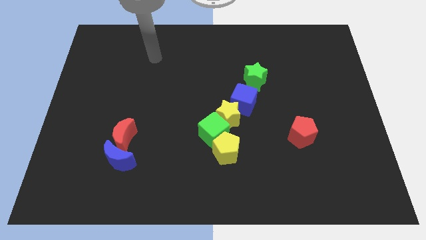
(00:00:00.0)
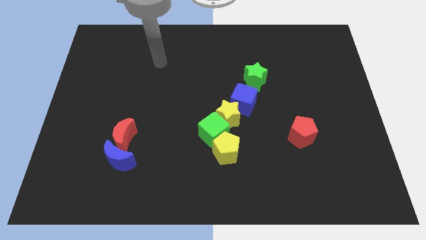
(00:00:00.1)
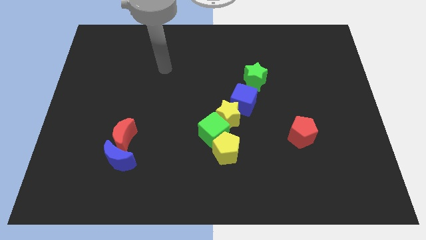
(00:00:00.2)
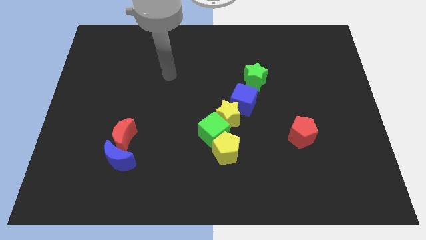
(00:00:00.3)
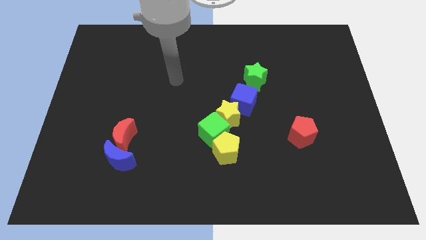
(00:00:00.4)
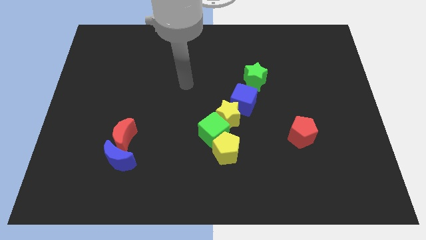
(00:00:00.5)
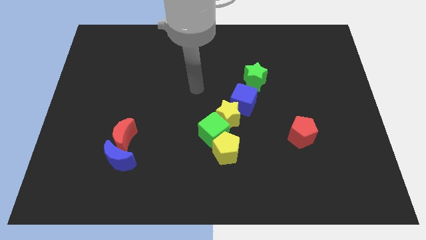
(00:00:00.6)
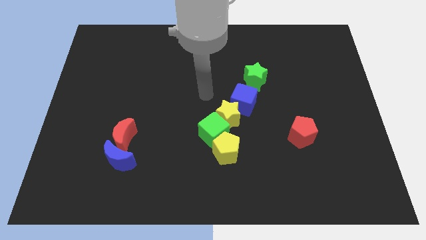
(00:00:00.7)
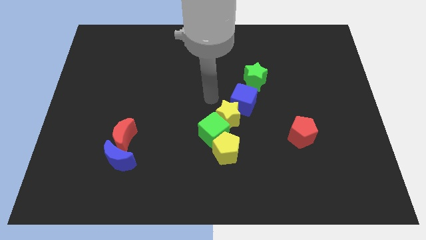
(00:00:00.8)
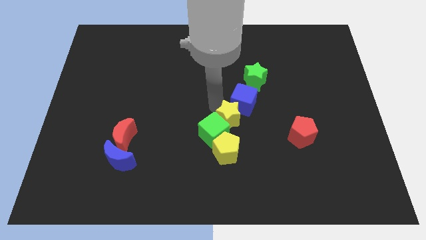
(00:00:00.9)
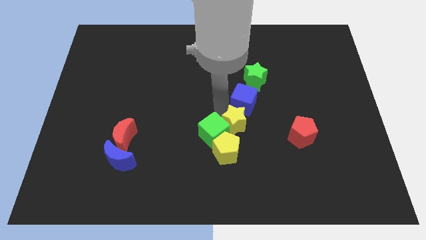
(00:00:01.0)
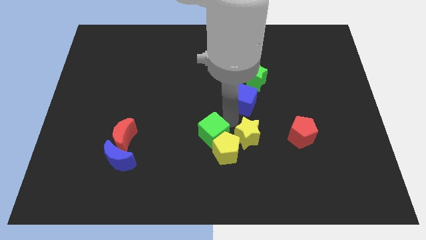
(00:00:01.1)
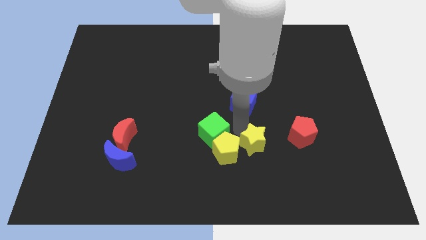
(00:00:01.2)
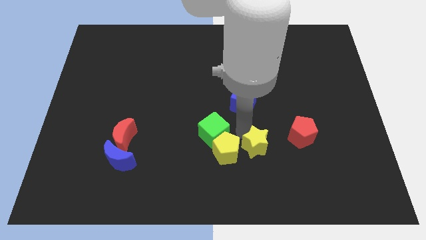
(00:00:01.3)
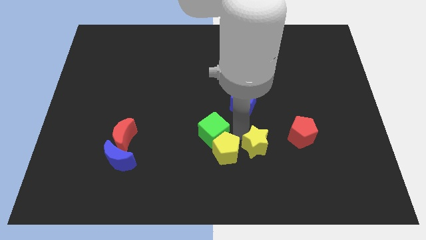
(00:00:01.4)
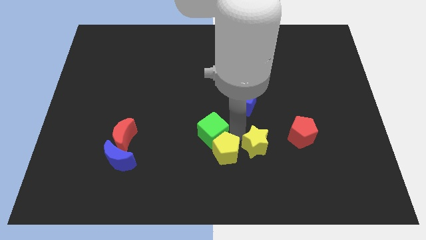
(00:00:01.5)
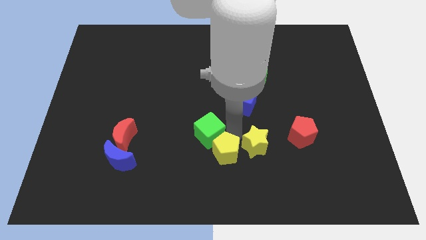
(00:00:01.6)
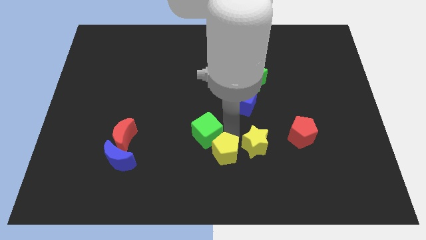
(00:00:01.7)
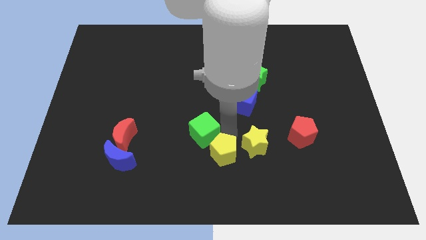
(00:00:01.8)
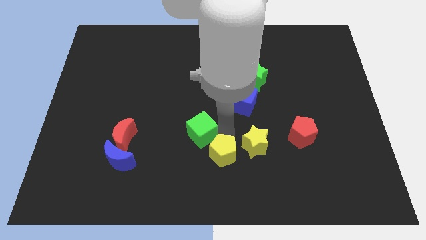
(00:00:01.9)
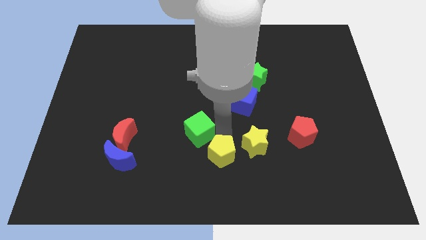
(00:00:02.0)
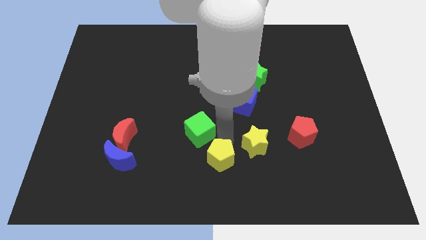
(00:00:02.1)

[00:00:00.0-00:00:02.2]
move the green cube away from the yellow star and yellow pentagon

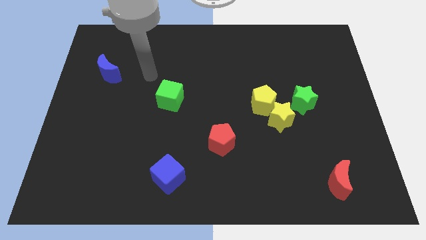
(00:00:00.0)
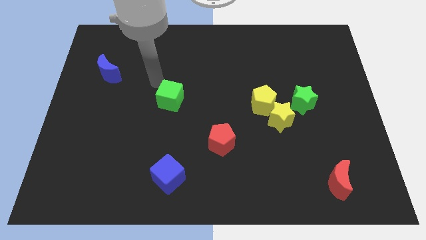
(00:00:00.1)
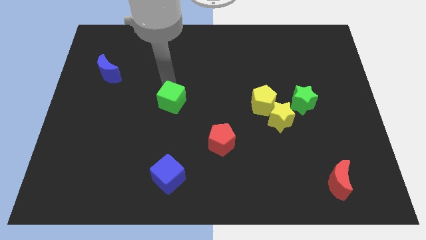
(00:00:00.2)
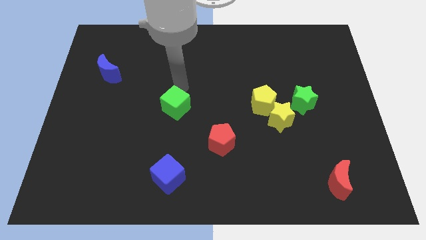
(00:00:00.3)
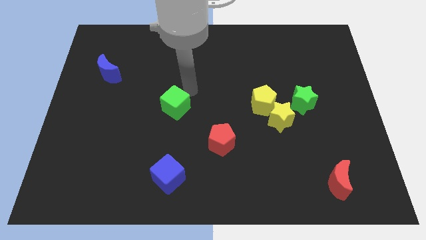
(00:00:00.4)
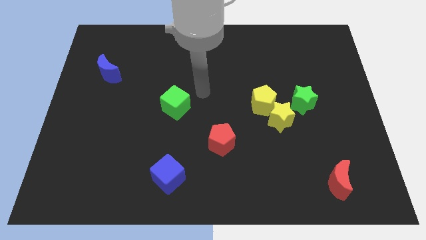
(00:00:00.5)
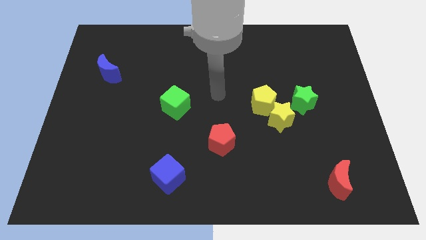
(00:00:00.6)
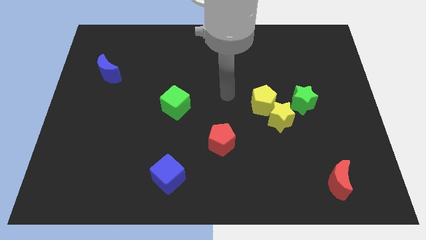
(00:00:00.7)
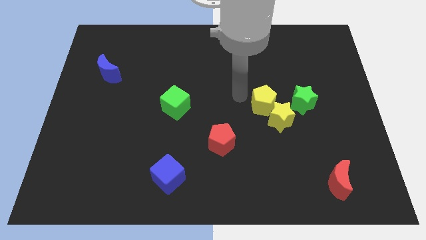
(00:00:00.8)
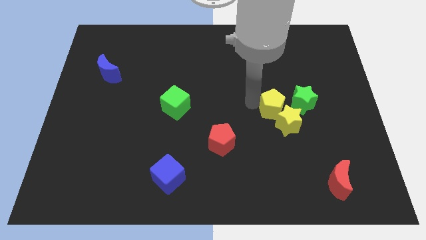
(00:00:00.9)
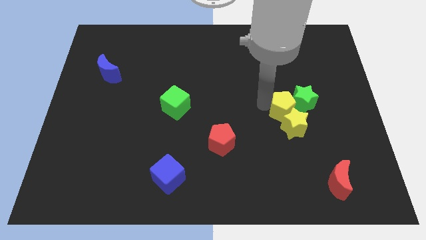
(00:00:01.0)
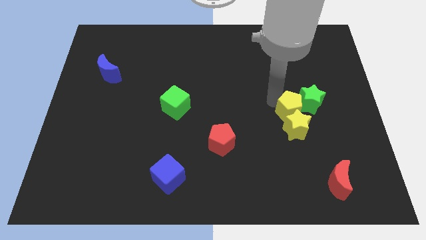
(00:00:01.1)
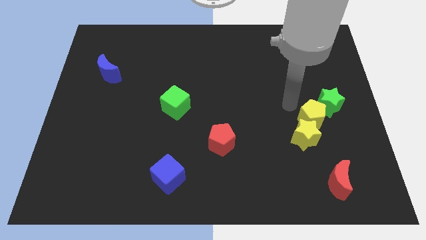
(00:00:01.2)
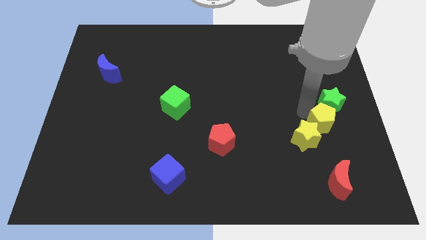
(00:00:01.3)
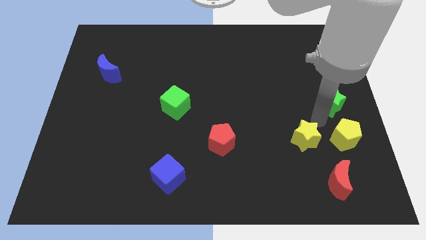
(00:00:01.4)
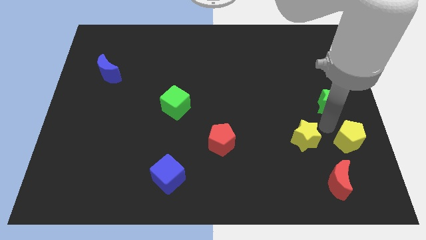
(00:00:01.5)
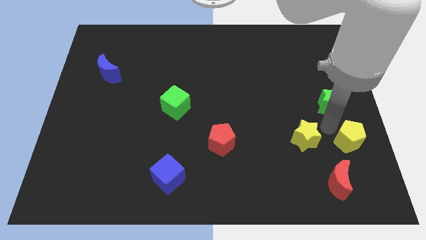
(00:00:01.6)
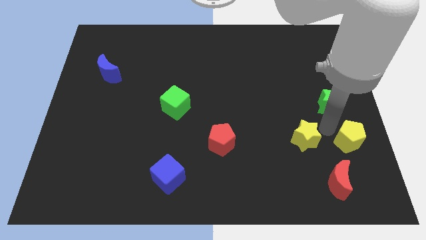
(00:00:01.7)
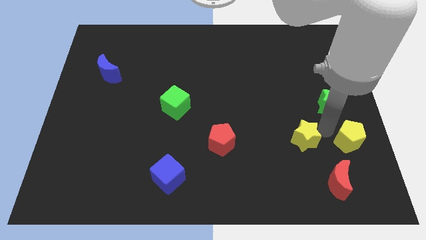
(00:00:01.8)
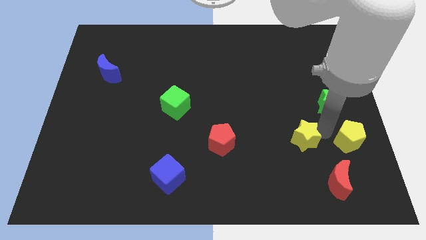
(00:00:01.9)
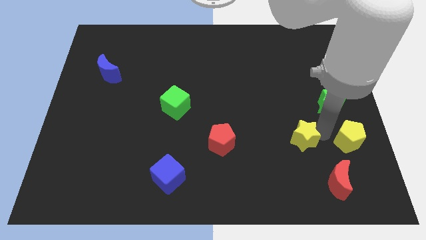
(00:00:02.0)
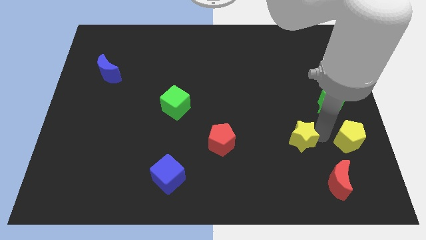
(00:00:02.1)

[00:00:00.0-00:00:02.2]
separate the yellow star from the yellow pentagon and green star

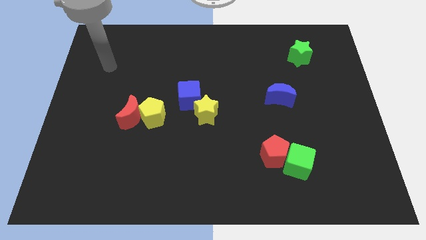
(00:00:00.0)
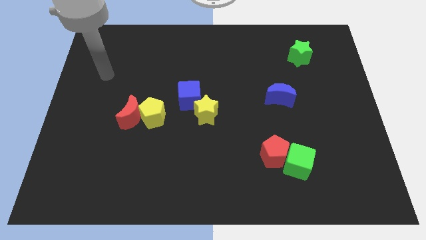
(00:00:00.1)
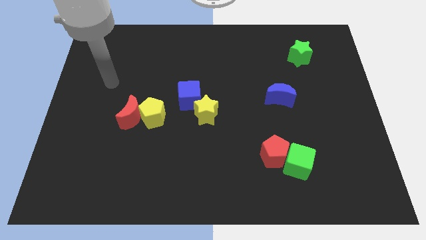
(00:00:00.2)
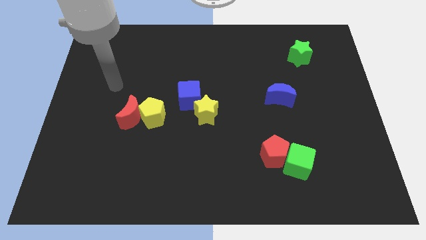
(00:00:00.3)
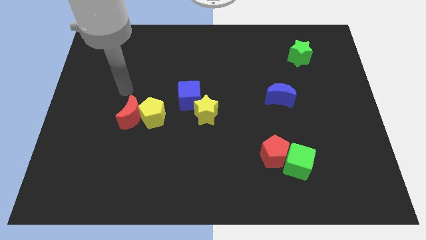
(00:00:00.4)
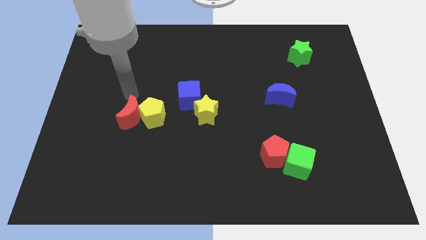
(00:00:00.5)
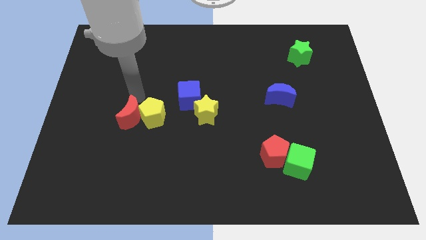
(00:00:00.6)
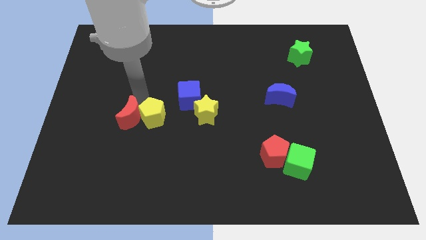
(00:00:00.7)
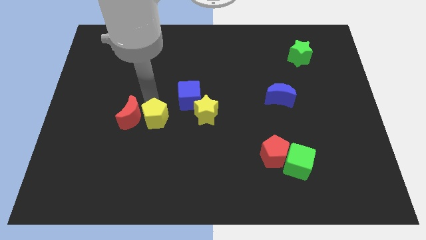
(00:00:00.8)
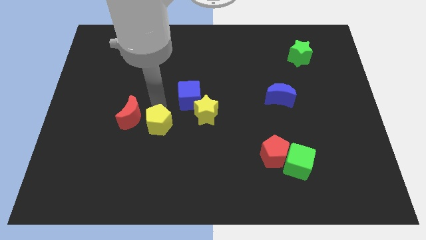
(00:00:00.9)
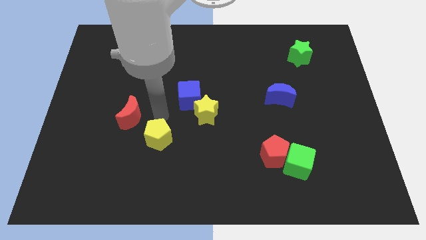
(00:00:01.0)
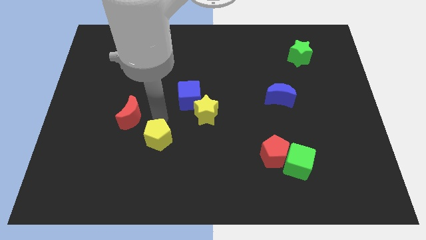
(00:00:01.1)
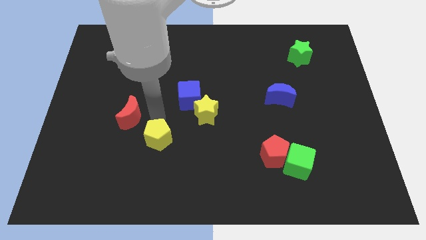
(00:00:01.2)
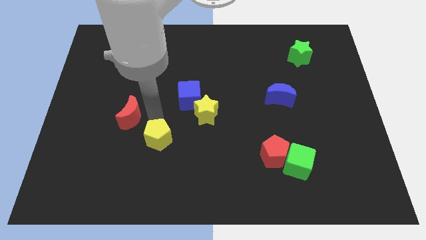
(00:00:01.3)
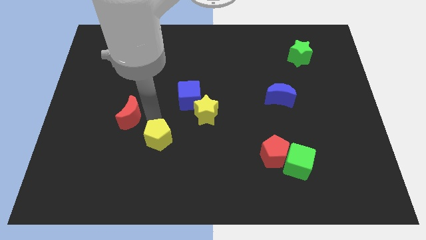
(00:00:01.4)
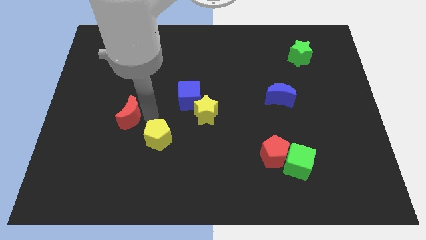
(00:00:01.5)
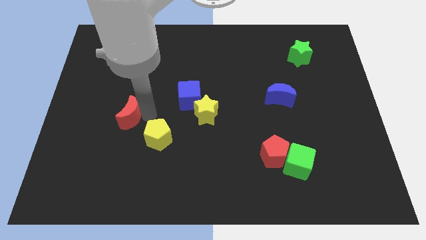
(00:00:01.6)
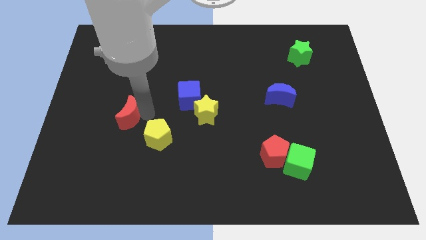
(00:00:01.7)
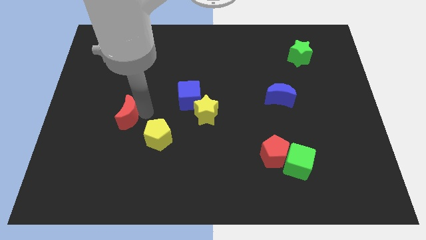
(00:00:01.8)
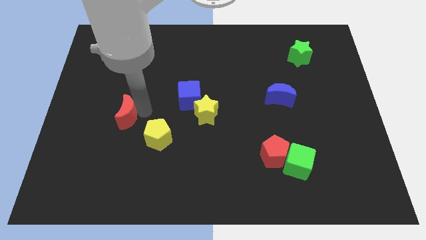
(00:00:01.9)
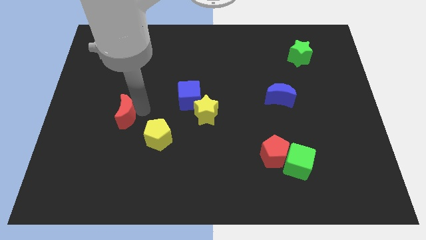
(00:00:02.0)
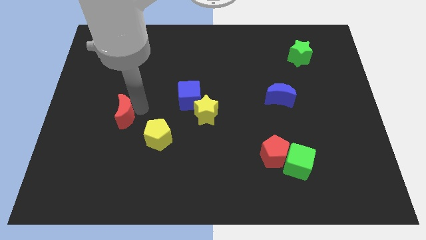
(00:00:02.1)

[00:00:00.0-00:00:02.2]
separate the red moon from the yellow pentagon

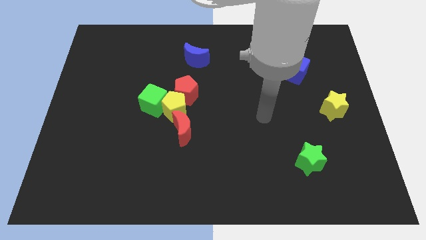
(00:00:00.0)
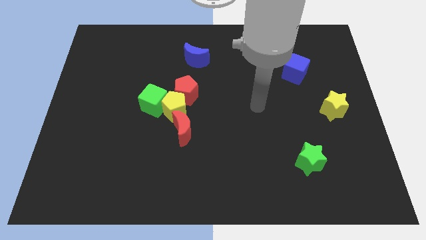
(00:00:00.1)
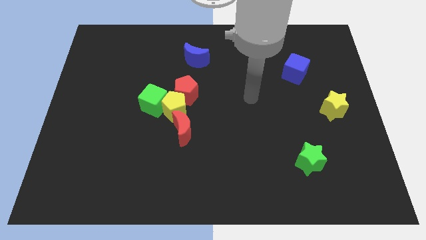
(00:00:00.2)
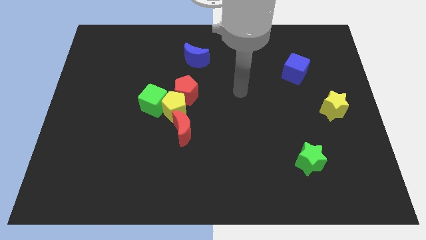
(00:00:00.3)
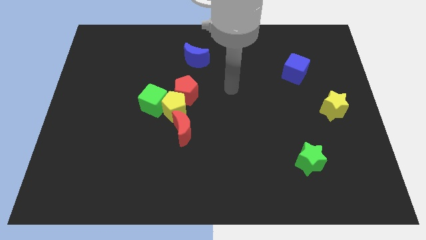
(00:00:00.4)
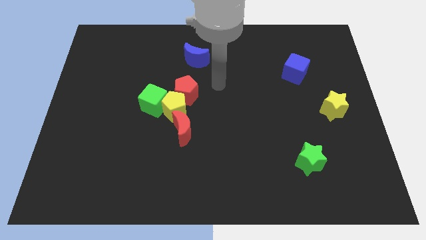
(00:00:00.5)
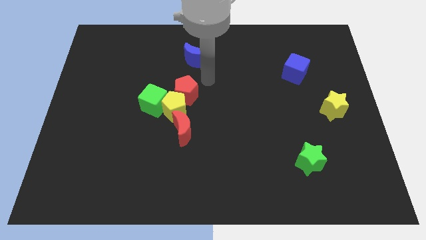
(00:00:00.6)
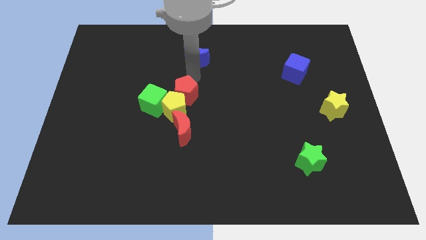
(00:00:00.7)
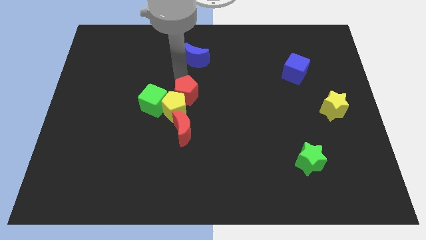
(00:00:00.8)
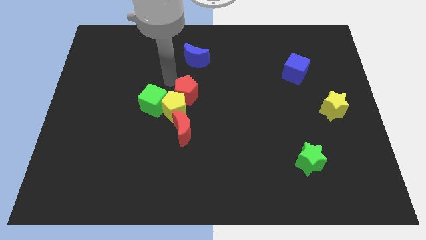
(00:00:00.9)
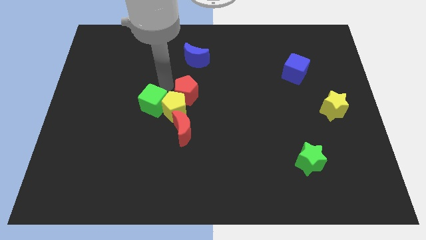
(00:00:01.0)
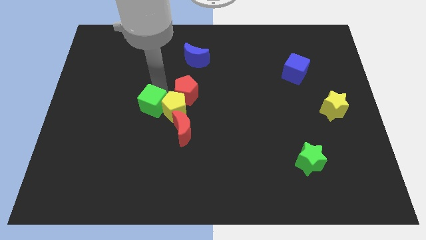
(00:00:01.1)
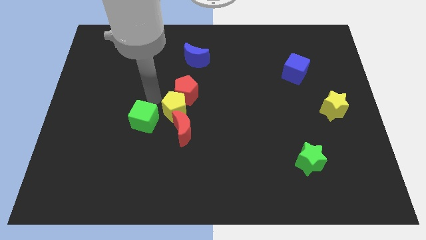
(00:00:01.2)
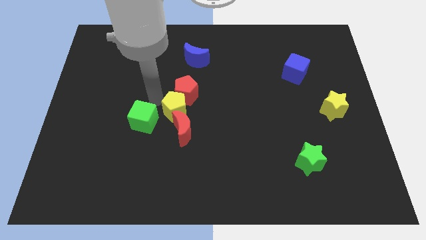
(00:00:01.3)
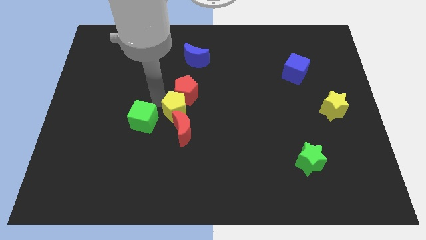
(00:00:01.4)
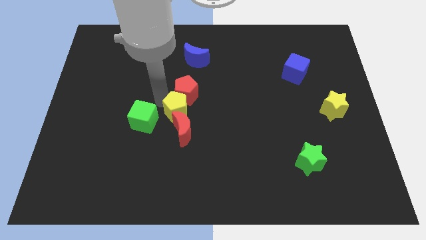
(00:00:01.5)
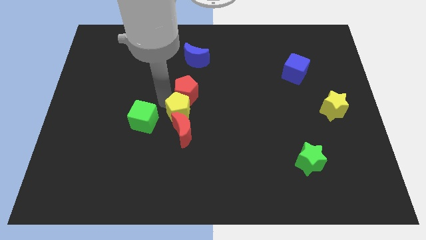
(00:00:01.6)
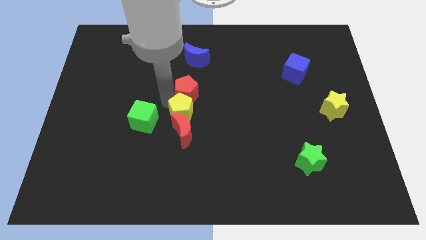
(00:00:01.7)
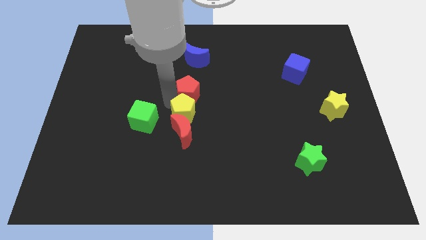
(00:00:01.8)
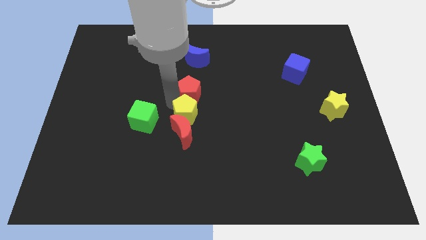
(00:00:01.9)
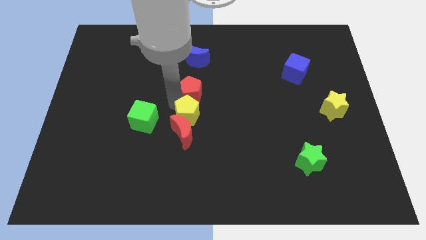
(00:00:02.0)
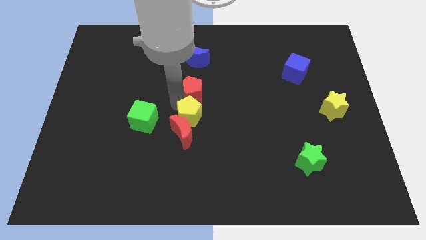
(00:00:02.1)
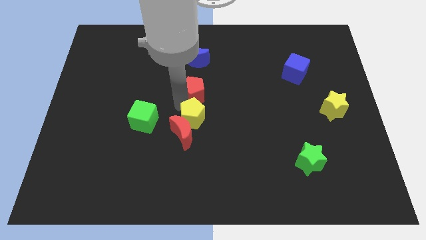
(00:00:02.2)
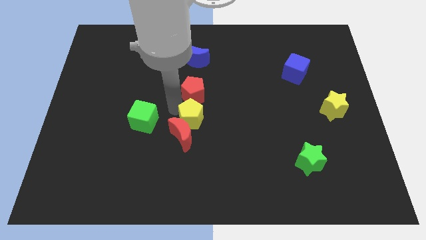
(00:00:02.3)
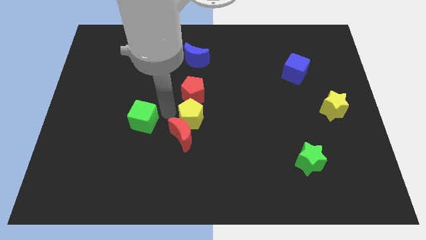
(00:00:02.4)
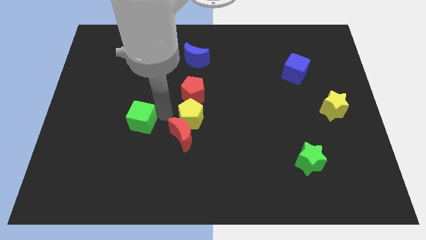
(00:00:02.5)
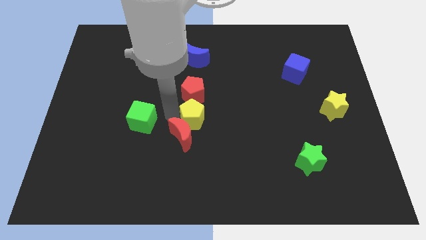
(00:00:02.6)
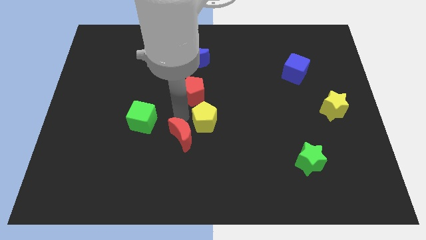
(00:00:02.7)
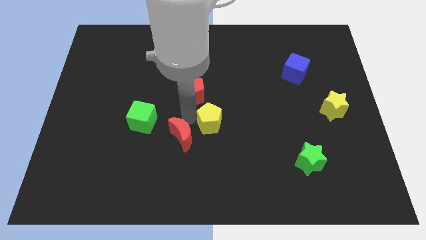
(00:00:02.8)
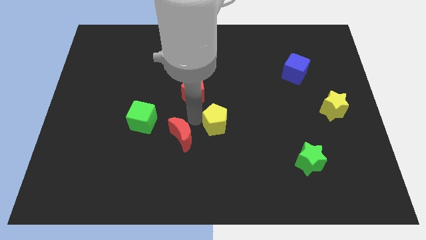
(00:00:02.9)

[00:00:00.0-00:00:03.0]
separate the yellow pentagon from the clump
